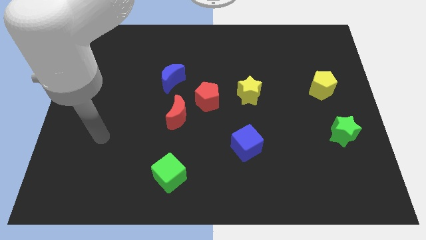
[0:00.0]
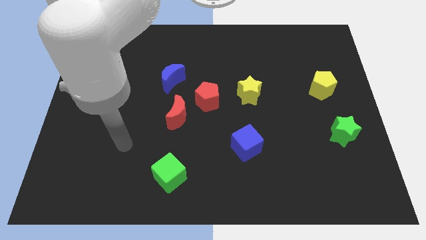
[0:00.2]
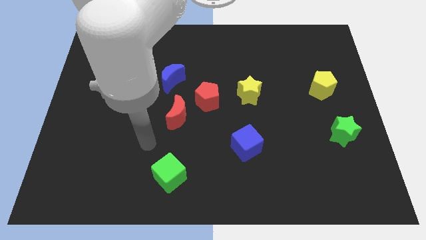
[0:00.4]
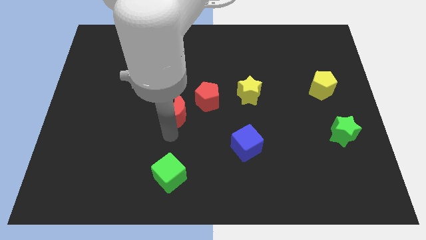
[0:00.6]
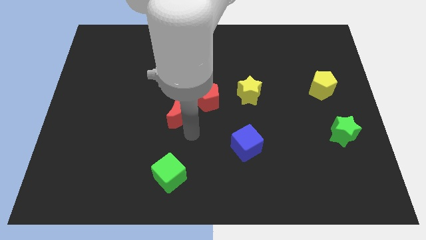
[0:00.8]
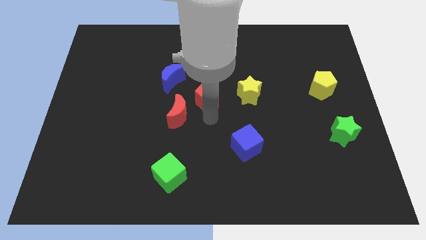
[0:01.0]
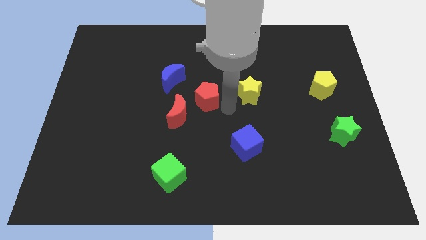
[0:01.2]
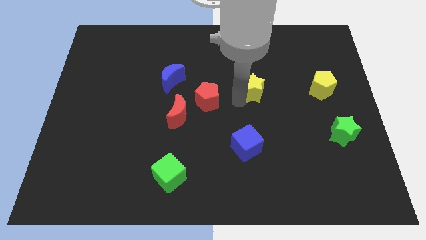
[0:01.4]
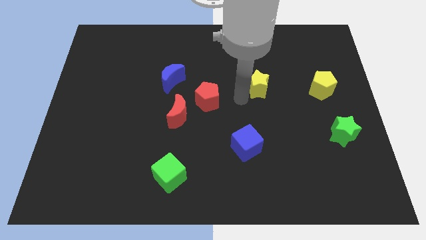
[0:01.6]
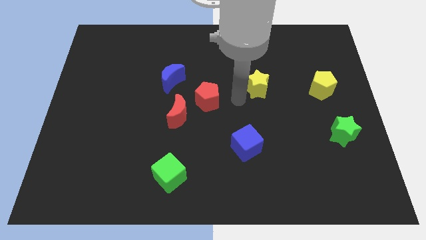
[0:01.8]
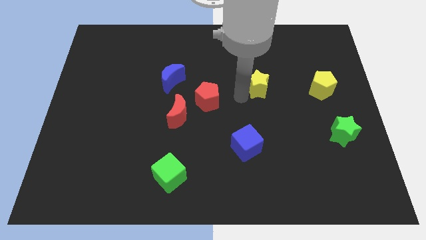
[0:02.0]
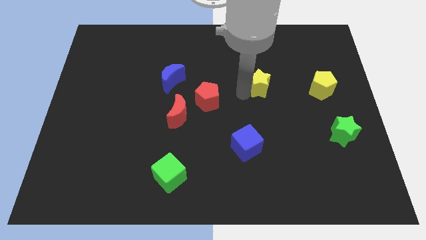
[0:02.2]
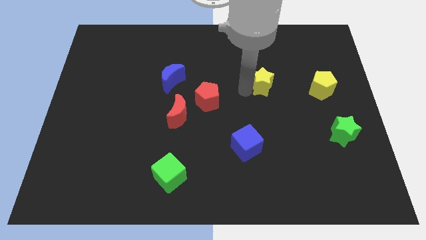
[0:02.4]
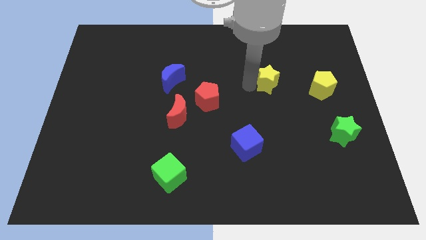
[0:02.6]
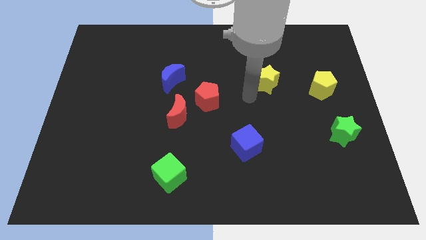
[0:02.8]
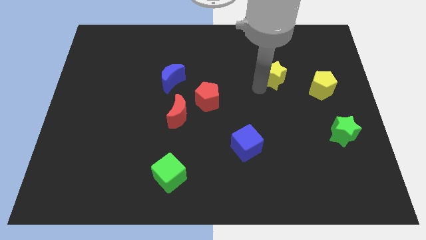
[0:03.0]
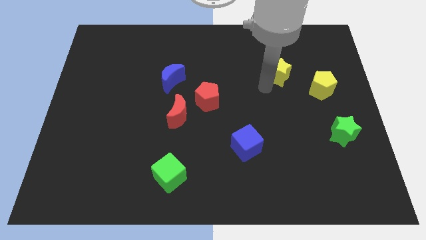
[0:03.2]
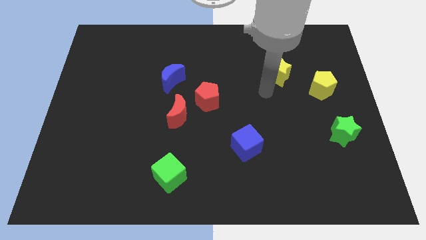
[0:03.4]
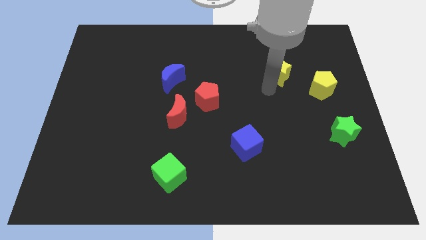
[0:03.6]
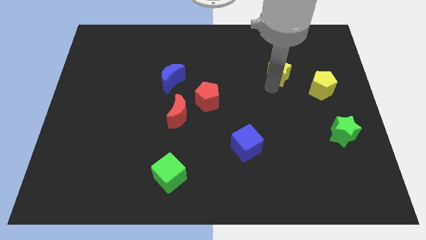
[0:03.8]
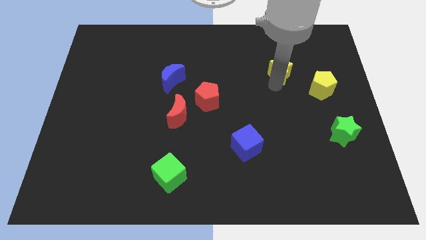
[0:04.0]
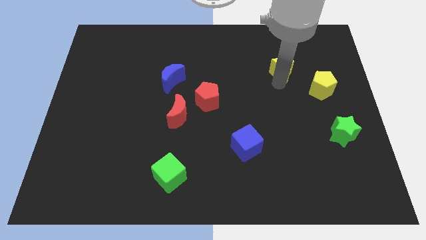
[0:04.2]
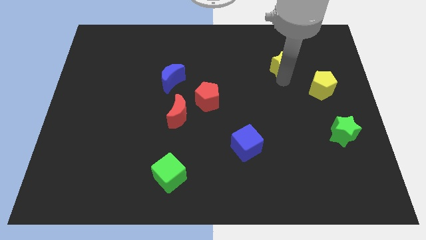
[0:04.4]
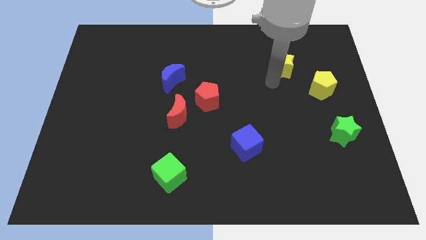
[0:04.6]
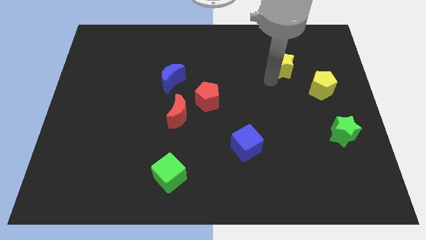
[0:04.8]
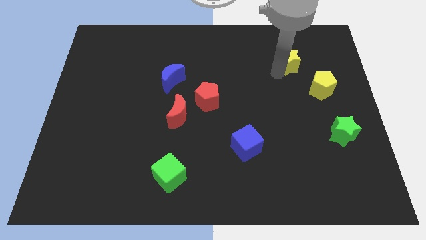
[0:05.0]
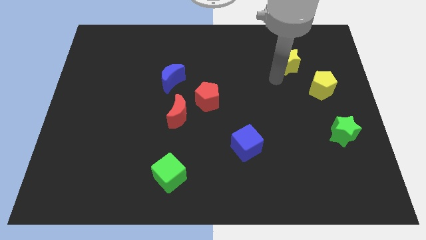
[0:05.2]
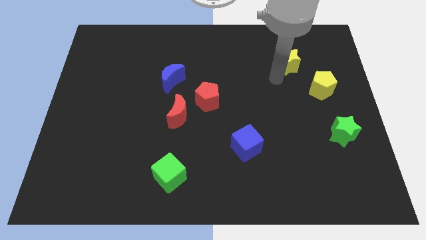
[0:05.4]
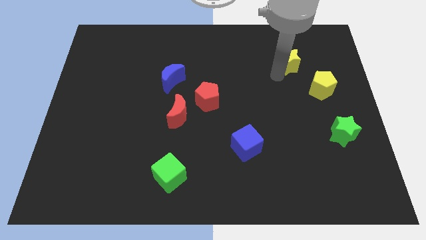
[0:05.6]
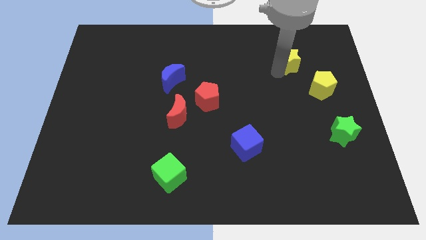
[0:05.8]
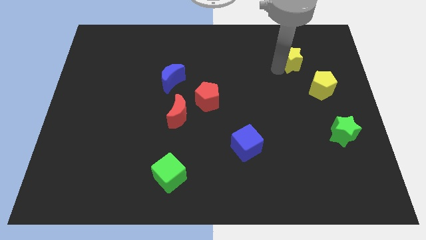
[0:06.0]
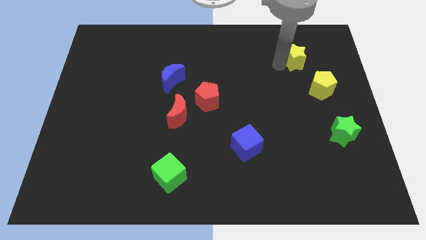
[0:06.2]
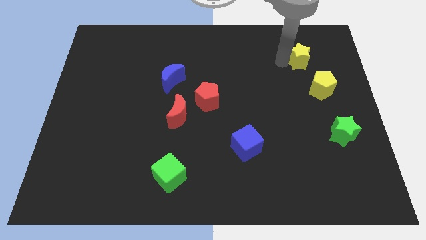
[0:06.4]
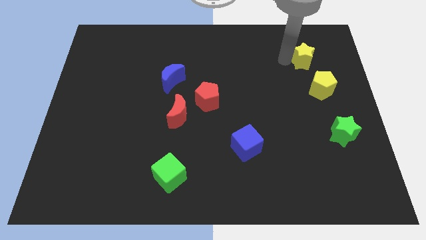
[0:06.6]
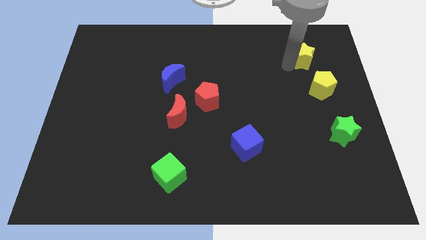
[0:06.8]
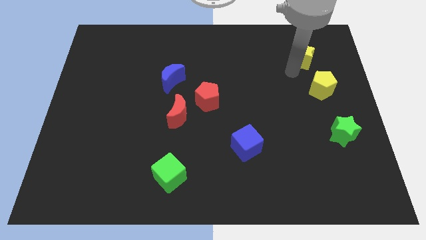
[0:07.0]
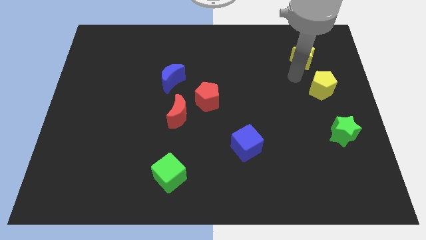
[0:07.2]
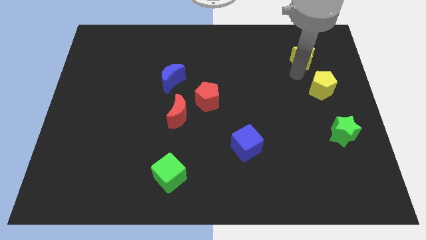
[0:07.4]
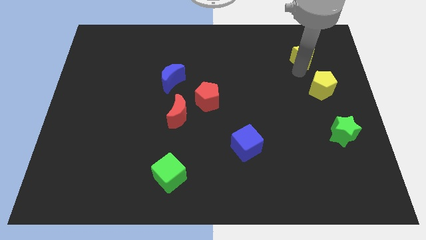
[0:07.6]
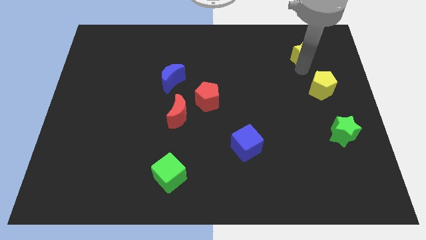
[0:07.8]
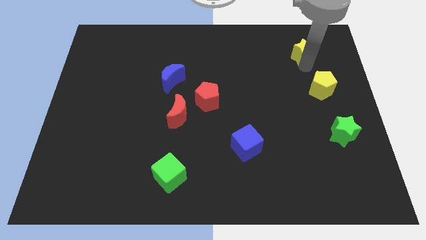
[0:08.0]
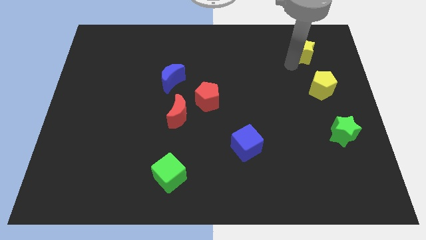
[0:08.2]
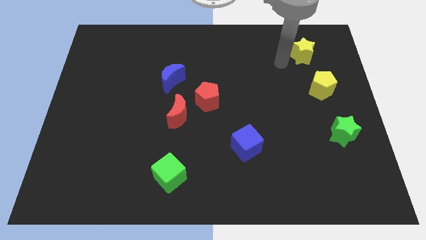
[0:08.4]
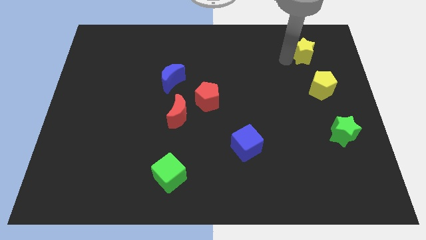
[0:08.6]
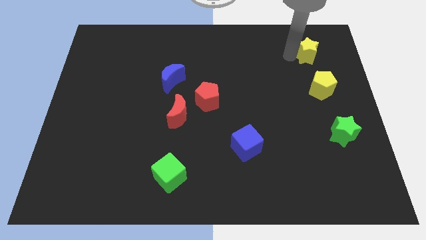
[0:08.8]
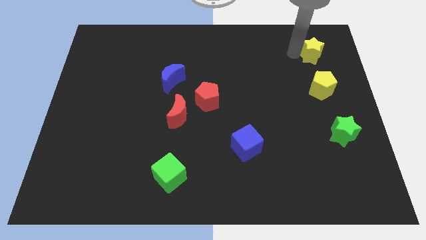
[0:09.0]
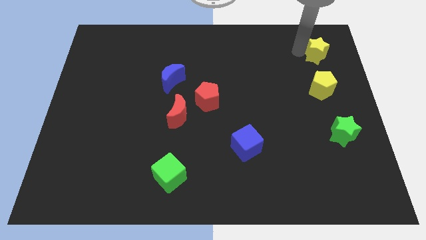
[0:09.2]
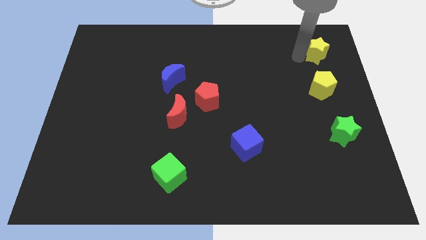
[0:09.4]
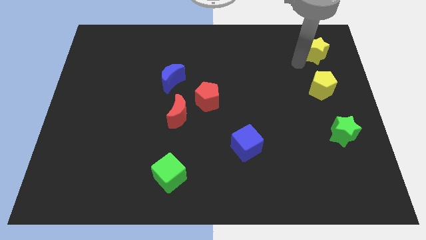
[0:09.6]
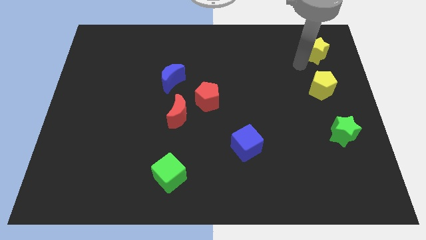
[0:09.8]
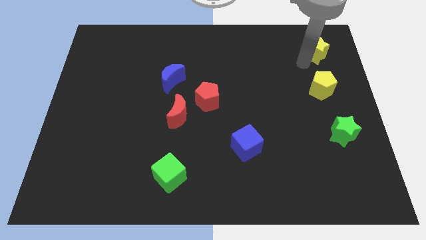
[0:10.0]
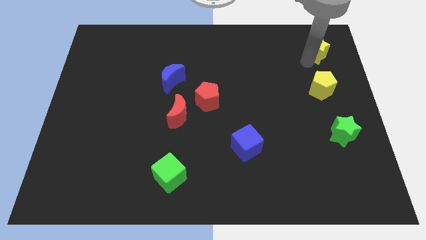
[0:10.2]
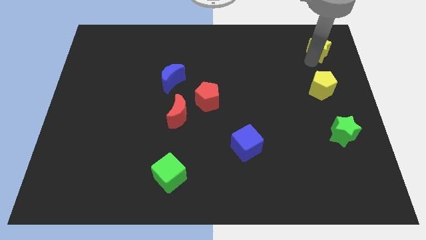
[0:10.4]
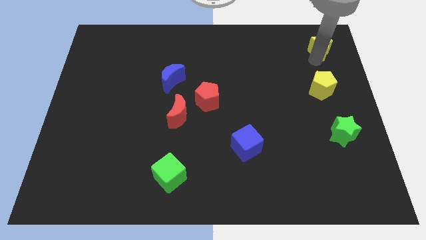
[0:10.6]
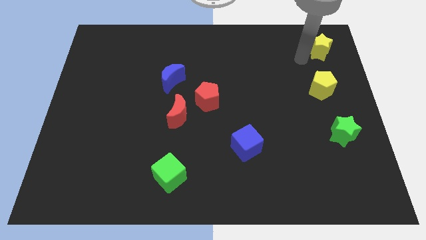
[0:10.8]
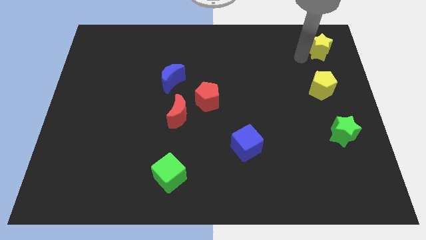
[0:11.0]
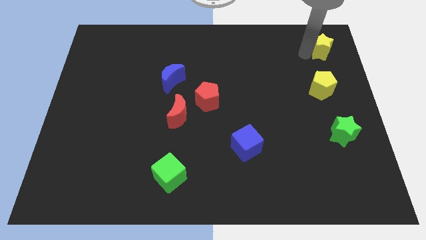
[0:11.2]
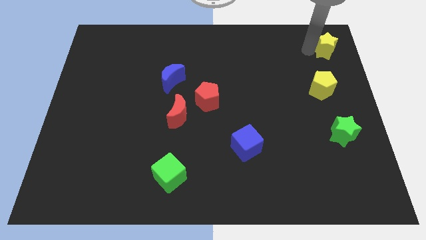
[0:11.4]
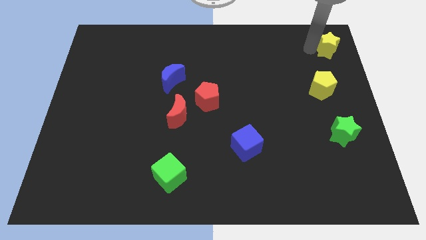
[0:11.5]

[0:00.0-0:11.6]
move the yellow star to the top right

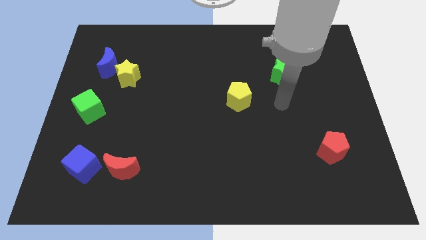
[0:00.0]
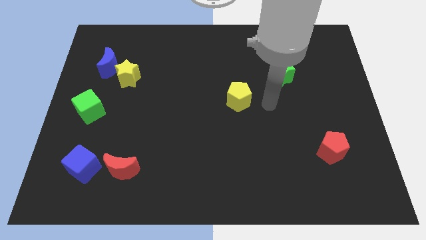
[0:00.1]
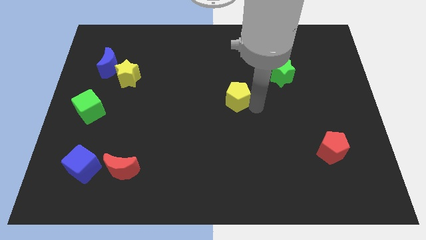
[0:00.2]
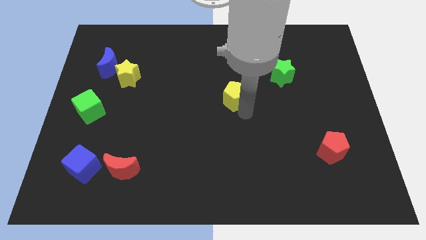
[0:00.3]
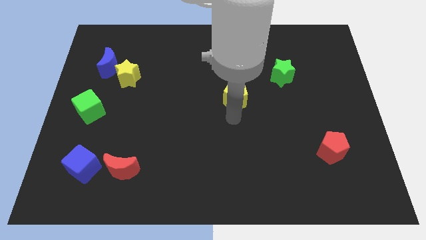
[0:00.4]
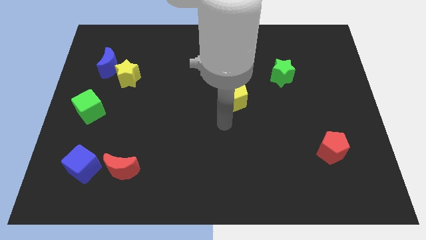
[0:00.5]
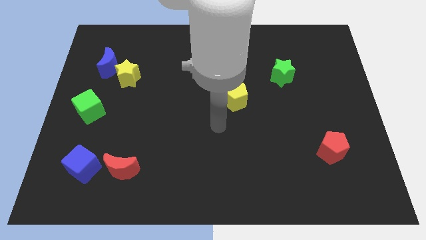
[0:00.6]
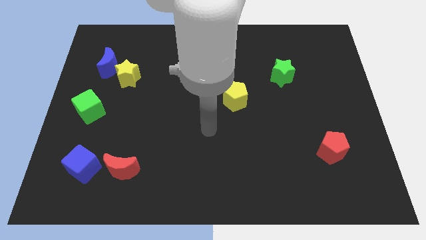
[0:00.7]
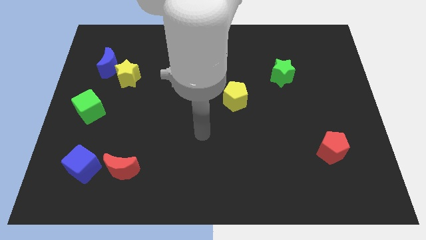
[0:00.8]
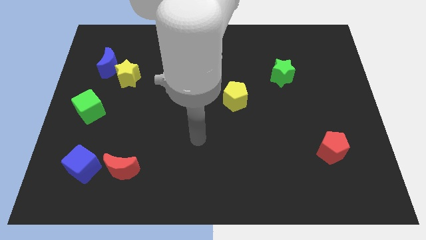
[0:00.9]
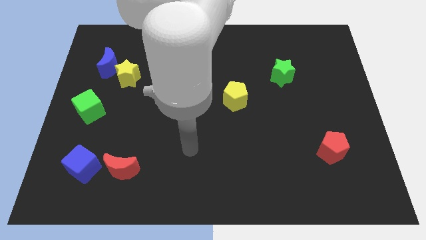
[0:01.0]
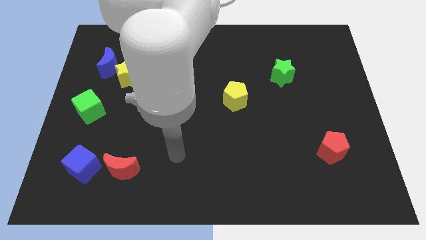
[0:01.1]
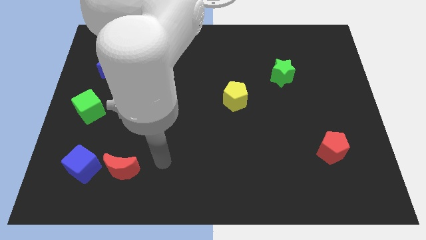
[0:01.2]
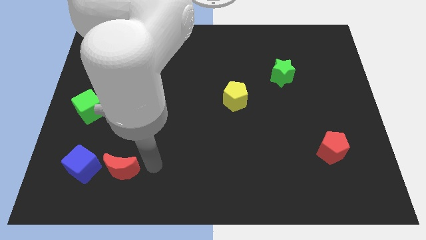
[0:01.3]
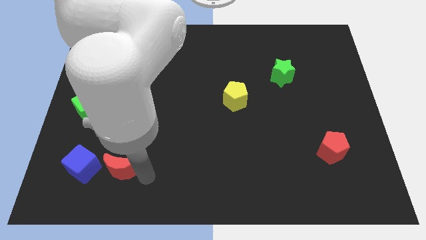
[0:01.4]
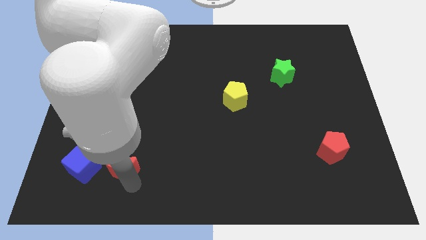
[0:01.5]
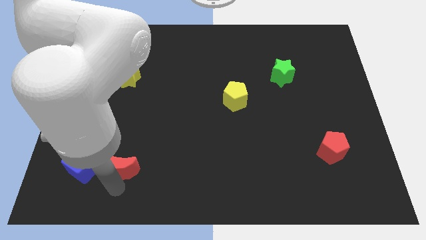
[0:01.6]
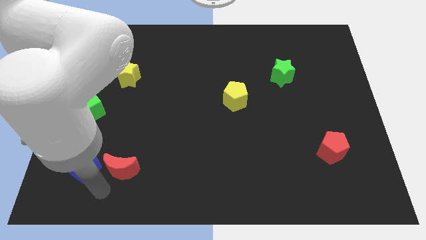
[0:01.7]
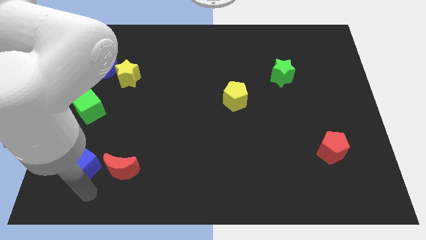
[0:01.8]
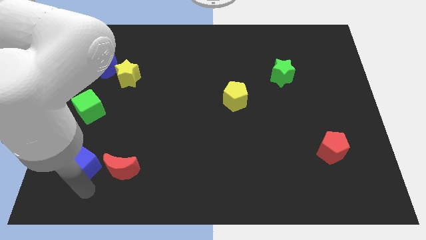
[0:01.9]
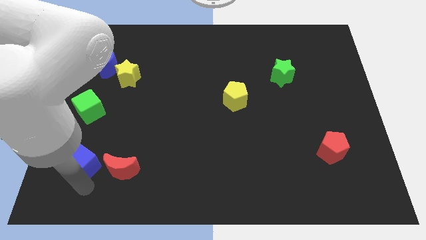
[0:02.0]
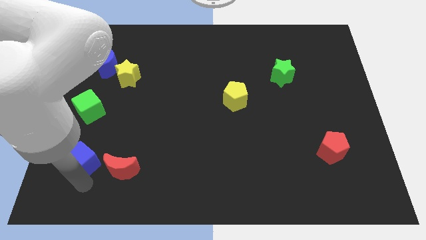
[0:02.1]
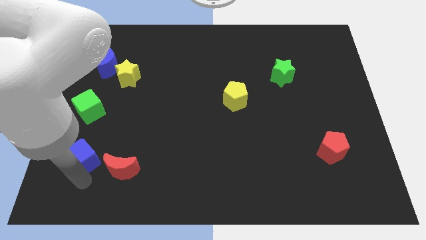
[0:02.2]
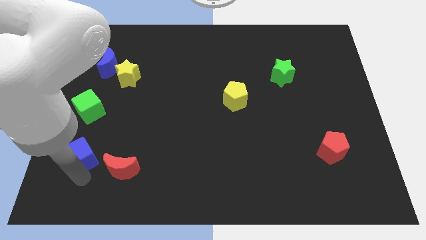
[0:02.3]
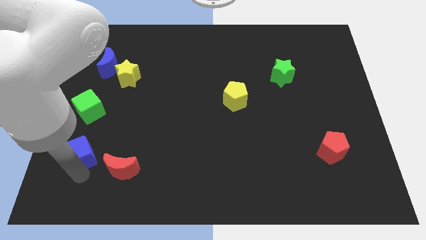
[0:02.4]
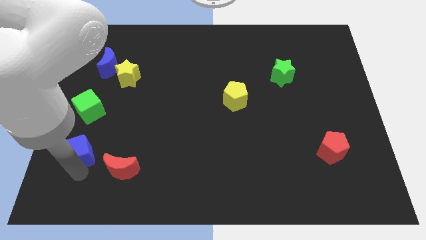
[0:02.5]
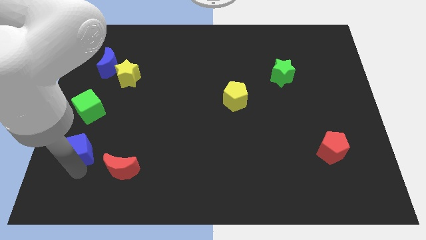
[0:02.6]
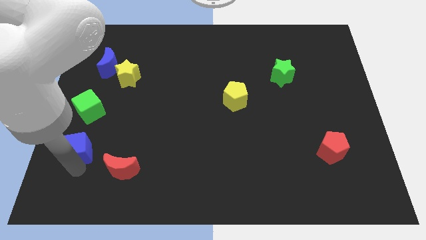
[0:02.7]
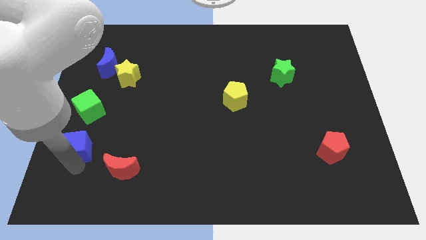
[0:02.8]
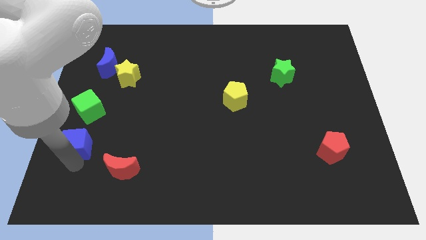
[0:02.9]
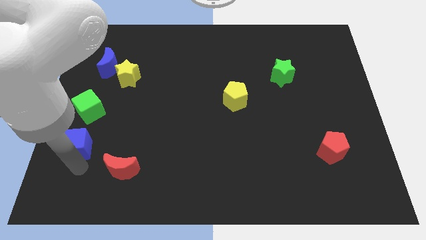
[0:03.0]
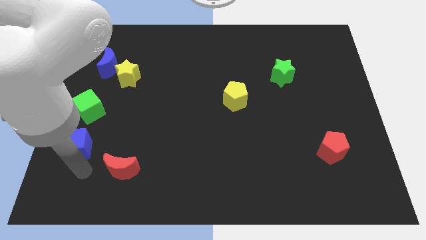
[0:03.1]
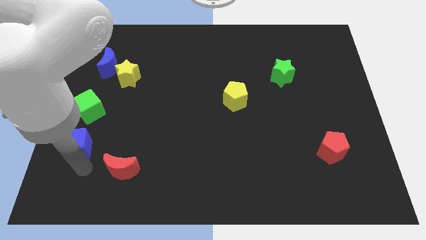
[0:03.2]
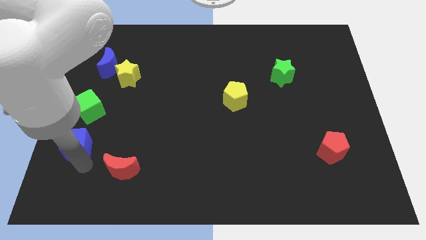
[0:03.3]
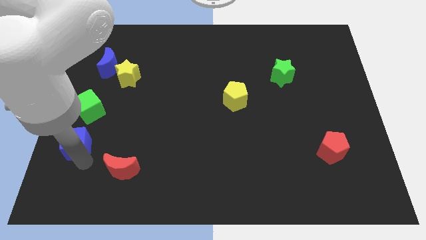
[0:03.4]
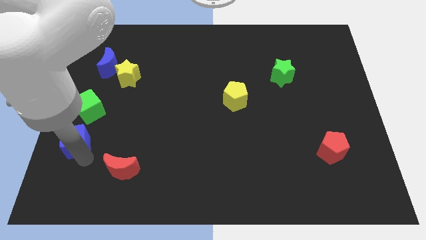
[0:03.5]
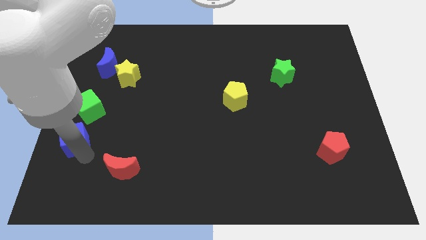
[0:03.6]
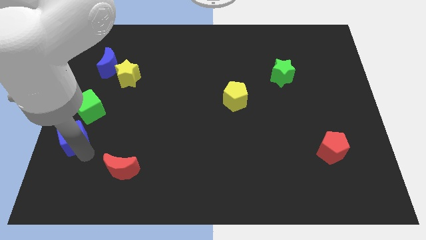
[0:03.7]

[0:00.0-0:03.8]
slide the blue cube to the left side of the board
